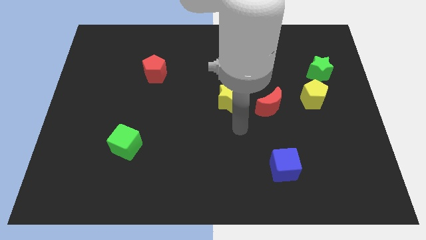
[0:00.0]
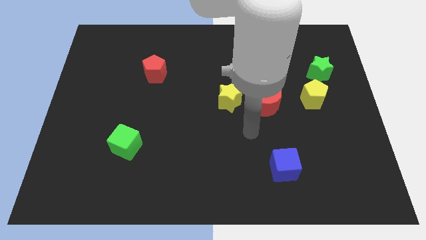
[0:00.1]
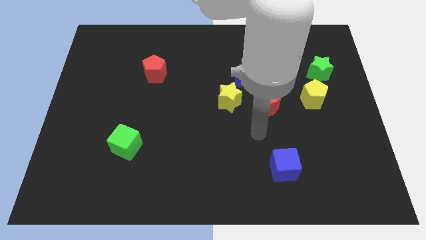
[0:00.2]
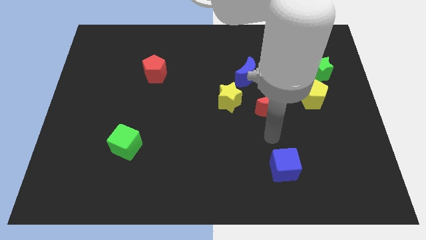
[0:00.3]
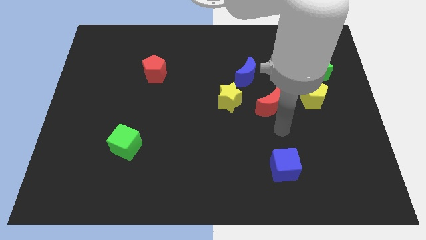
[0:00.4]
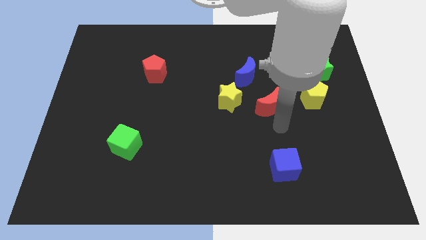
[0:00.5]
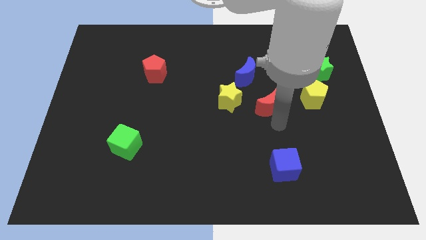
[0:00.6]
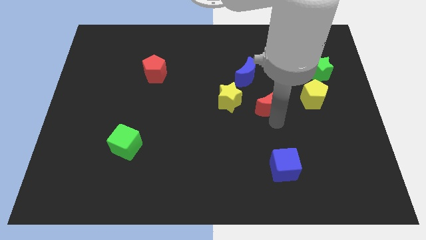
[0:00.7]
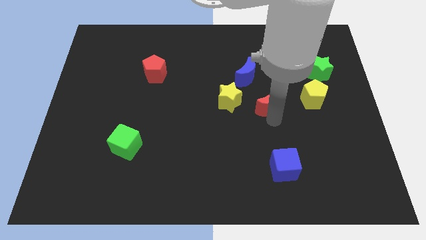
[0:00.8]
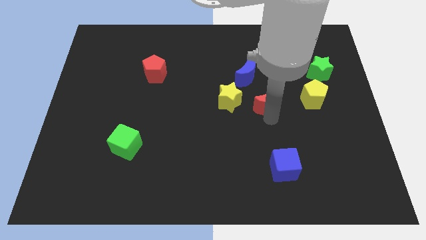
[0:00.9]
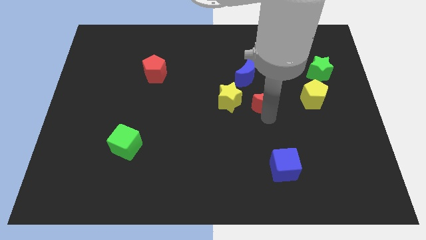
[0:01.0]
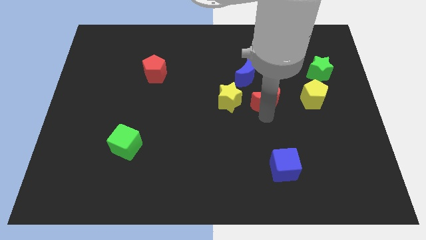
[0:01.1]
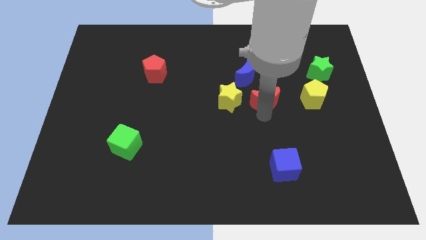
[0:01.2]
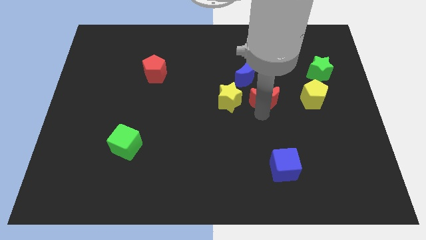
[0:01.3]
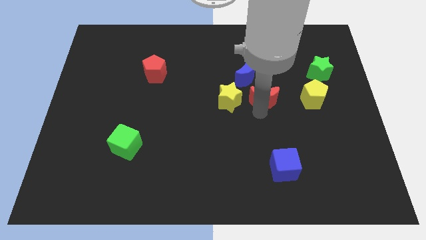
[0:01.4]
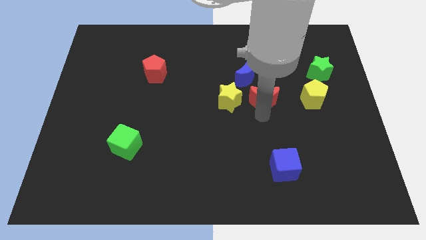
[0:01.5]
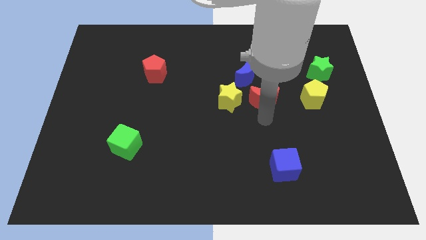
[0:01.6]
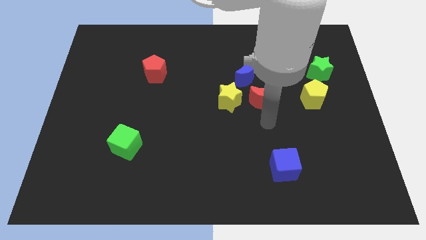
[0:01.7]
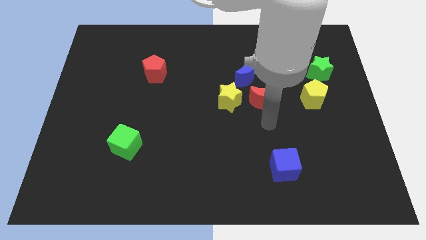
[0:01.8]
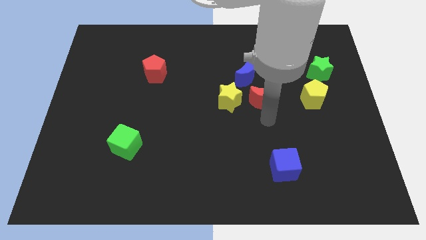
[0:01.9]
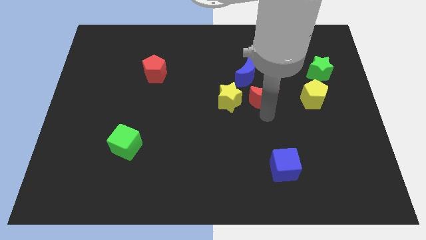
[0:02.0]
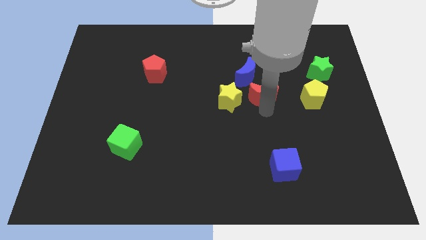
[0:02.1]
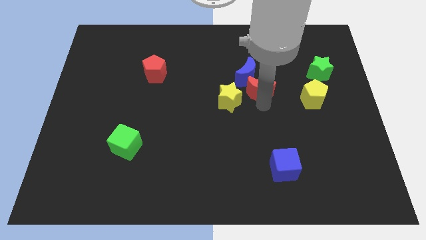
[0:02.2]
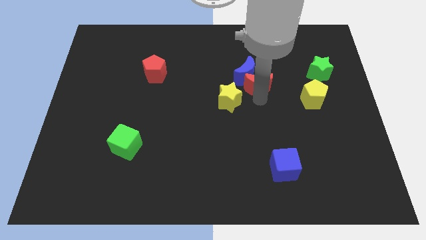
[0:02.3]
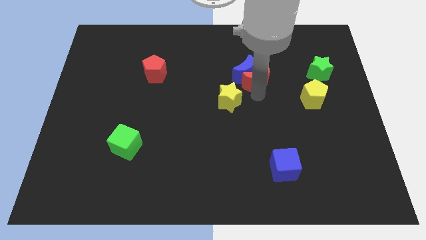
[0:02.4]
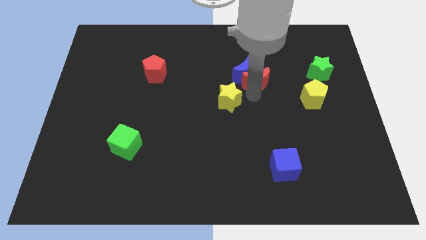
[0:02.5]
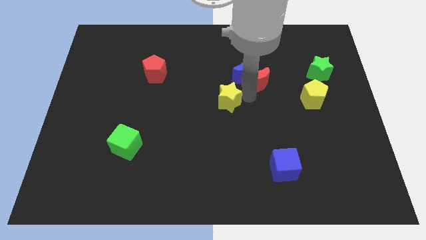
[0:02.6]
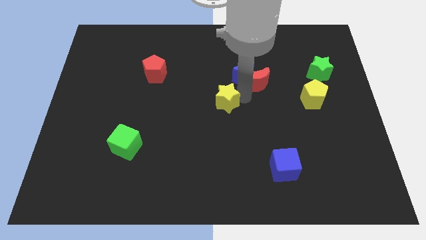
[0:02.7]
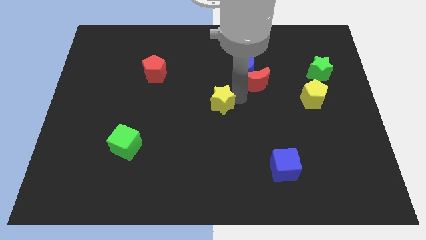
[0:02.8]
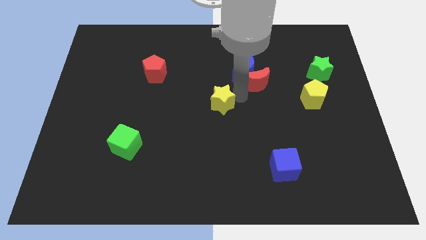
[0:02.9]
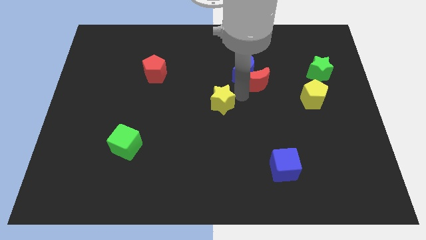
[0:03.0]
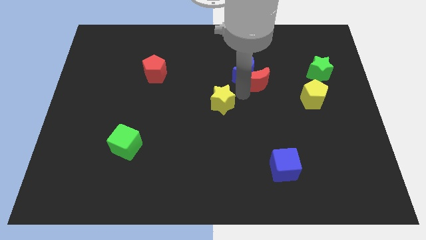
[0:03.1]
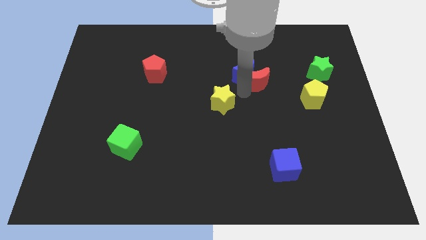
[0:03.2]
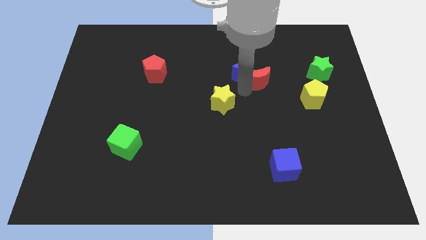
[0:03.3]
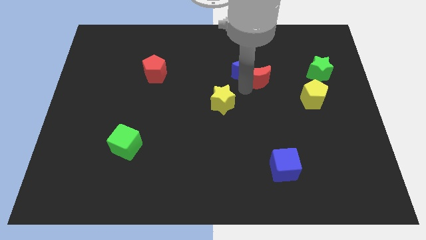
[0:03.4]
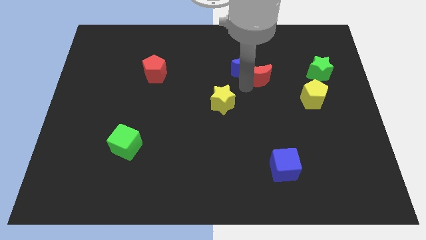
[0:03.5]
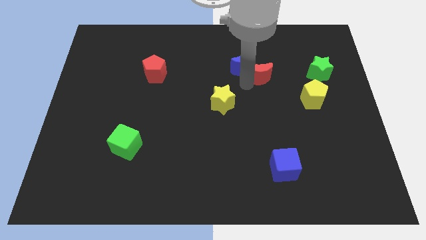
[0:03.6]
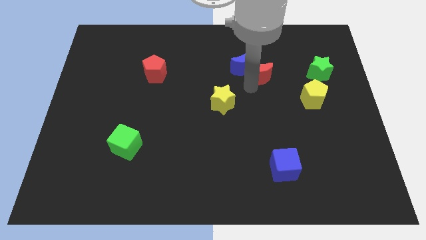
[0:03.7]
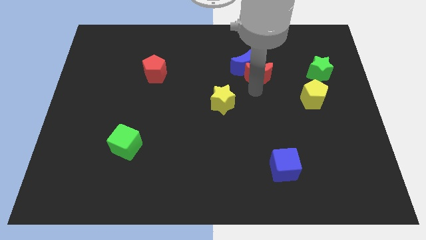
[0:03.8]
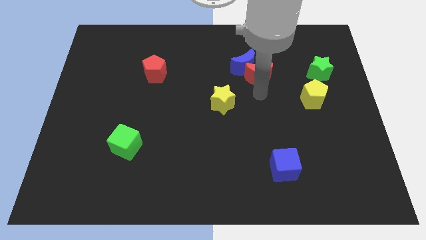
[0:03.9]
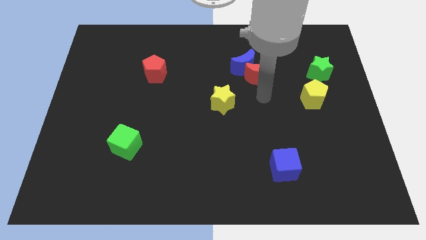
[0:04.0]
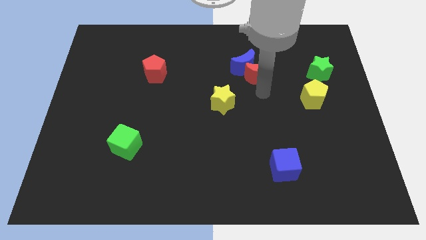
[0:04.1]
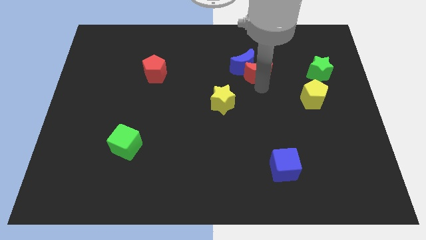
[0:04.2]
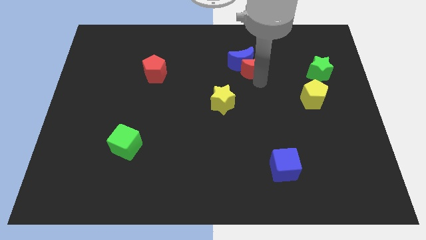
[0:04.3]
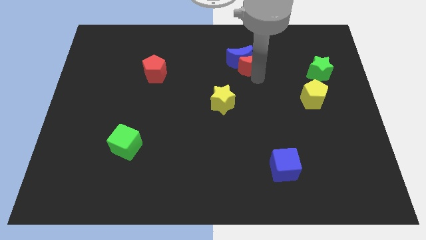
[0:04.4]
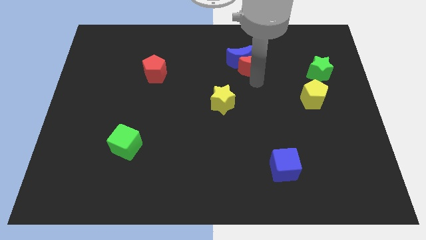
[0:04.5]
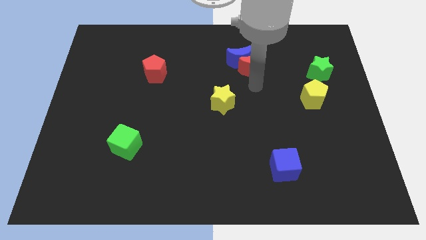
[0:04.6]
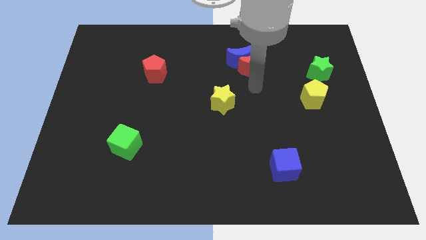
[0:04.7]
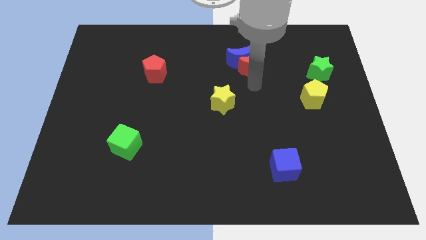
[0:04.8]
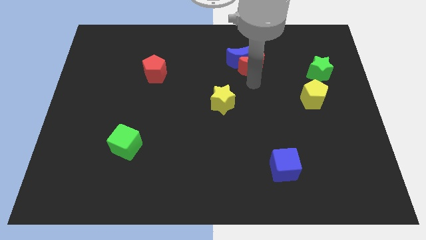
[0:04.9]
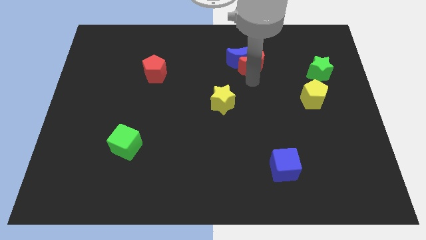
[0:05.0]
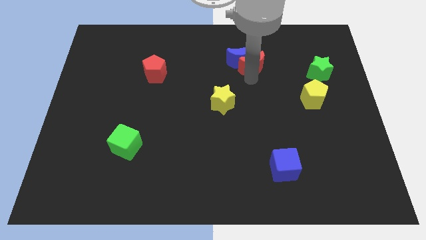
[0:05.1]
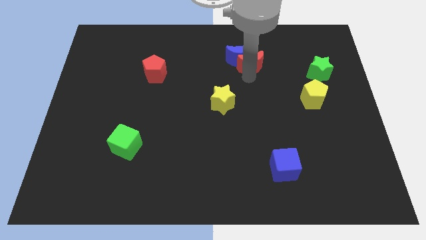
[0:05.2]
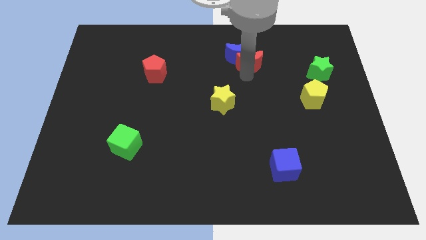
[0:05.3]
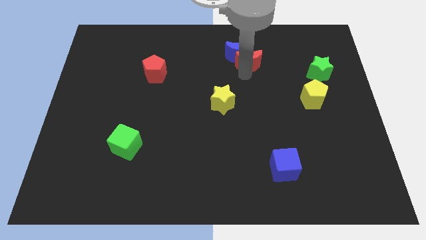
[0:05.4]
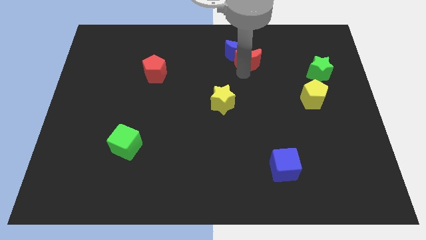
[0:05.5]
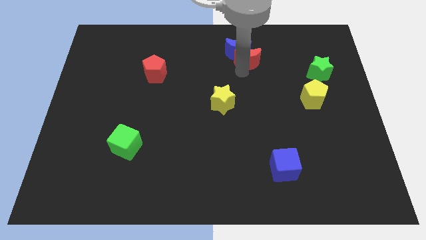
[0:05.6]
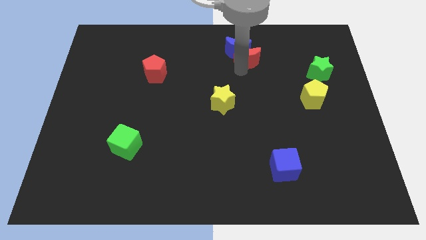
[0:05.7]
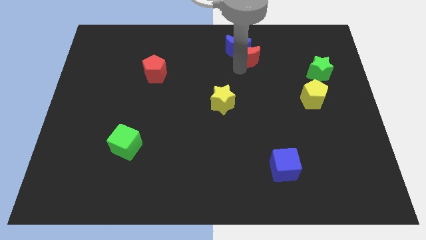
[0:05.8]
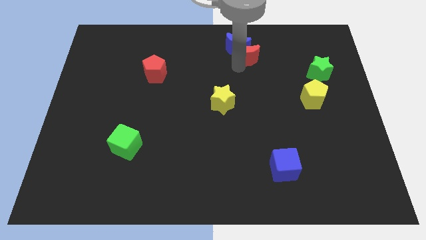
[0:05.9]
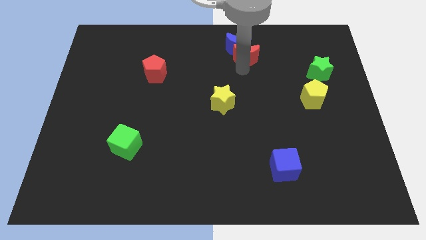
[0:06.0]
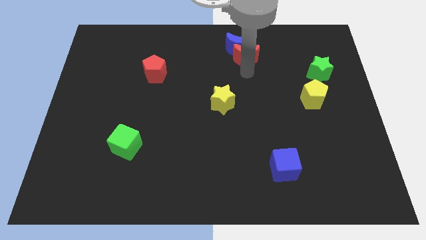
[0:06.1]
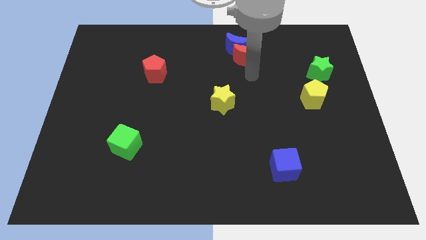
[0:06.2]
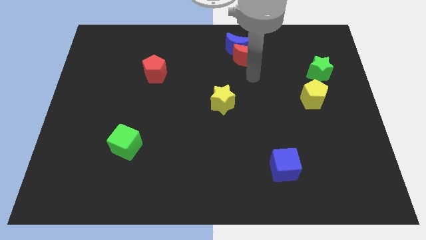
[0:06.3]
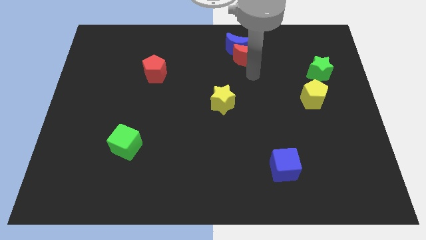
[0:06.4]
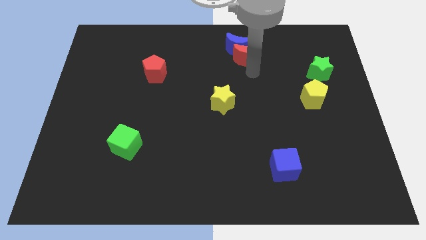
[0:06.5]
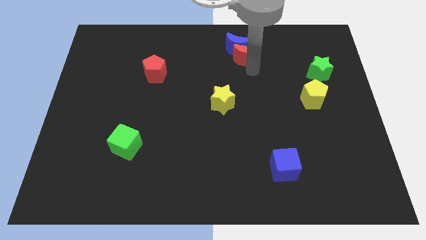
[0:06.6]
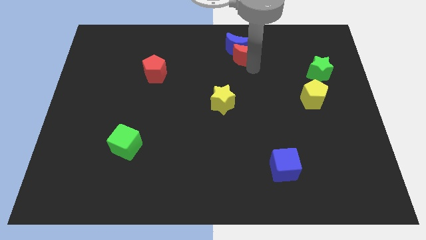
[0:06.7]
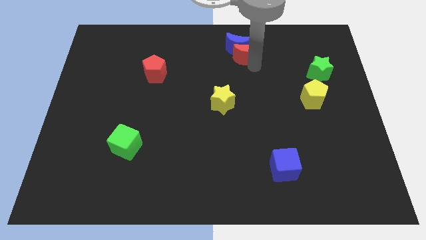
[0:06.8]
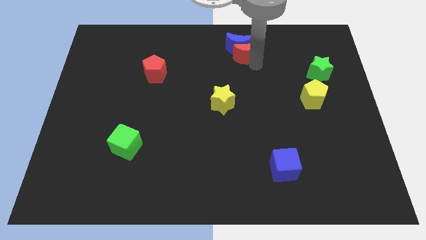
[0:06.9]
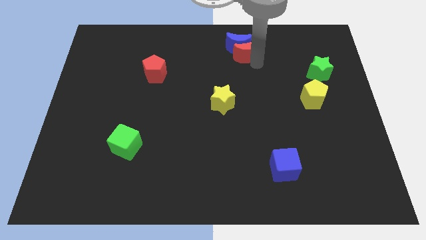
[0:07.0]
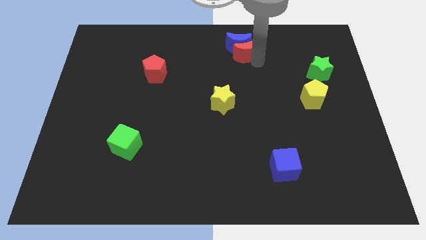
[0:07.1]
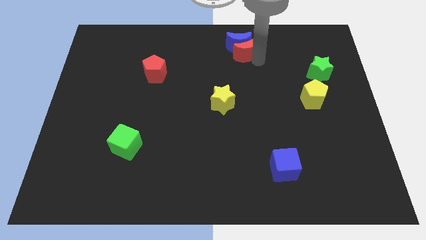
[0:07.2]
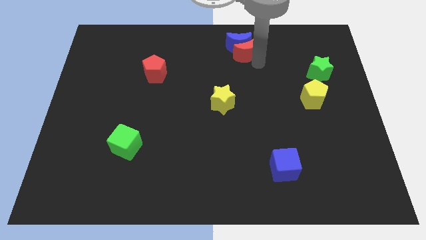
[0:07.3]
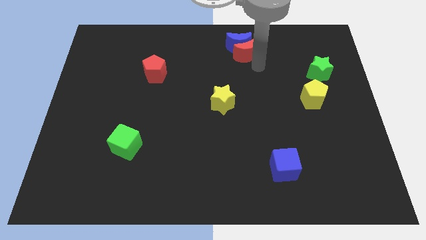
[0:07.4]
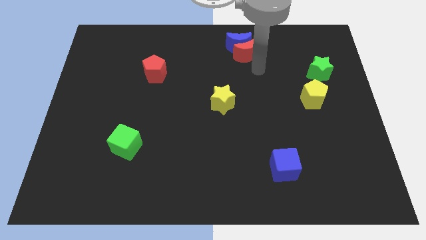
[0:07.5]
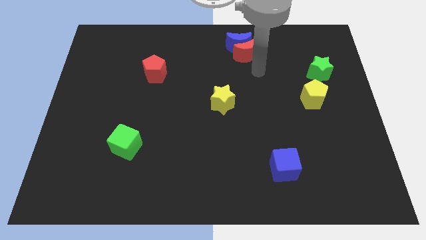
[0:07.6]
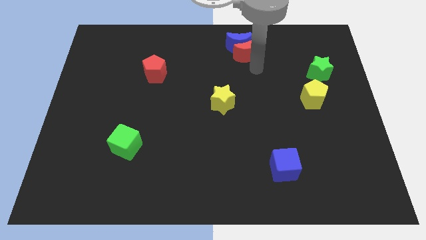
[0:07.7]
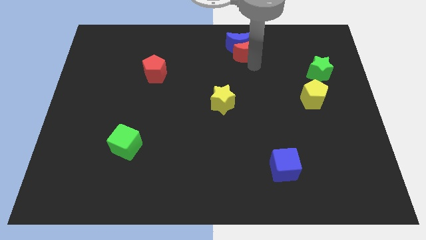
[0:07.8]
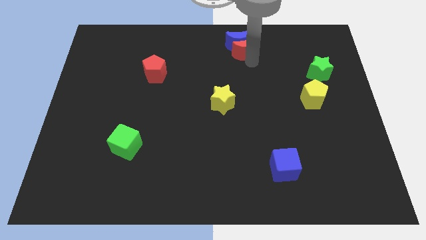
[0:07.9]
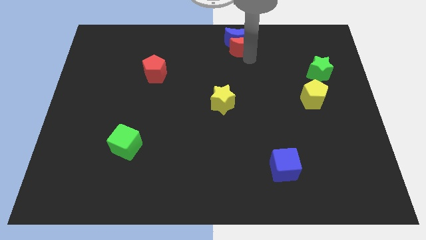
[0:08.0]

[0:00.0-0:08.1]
put the red moon to the top
